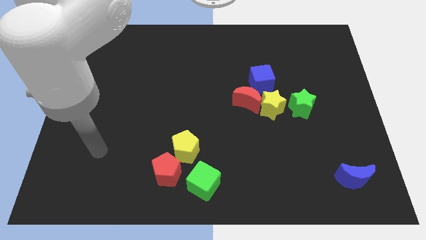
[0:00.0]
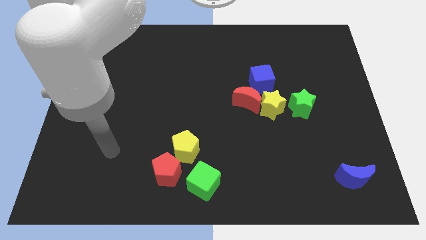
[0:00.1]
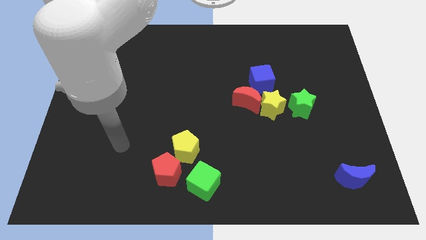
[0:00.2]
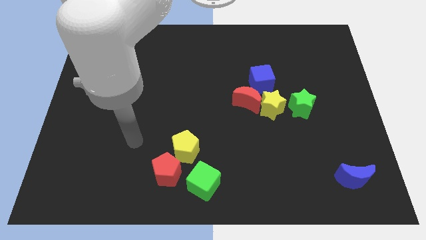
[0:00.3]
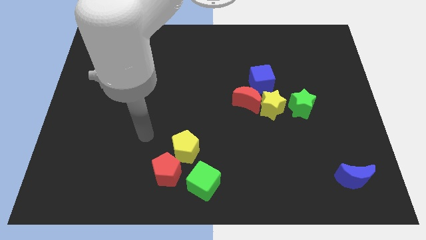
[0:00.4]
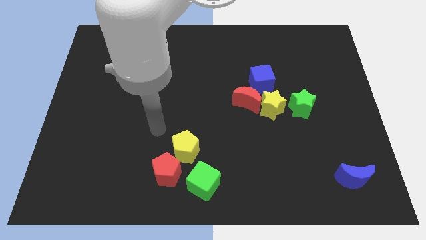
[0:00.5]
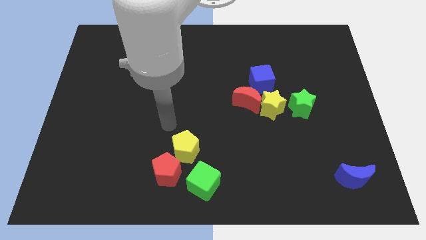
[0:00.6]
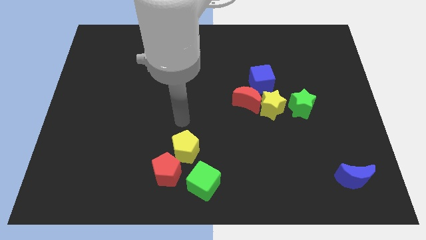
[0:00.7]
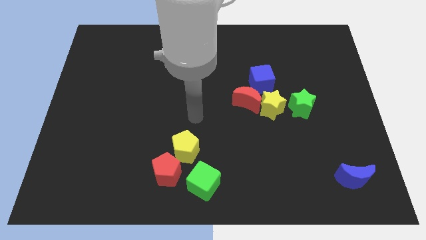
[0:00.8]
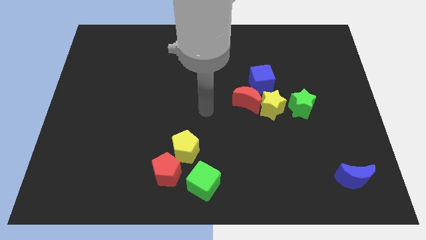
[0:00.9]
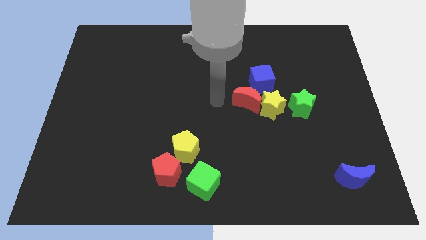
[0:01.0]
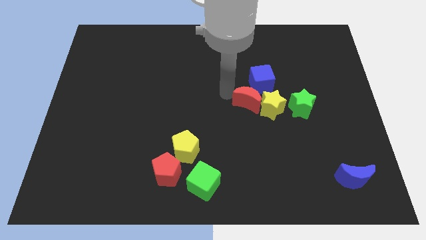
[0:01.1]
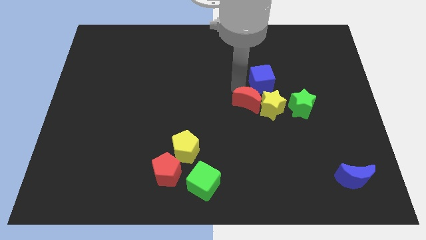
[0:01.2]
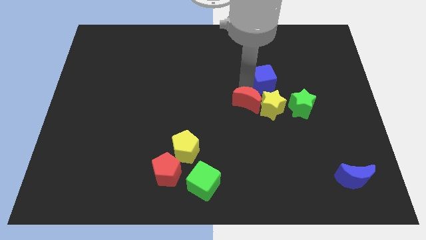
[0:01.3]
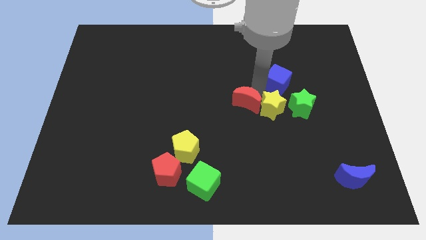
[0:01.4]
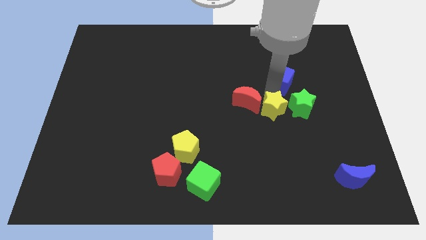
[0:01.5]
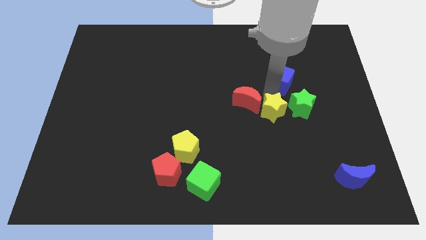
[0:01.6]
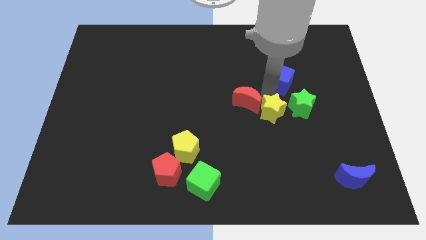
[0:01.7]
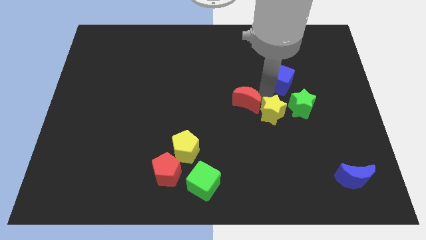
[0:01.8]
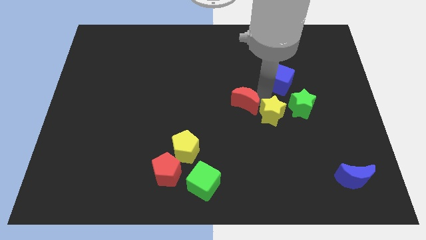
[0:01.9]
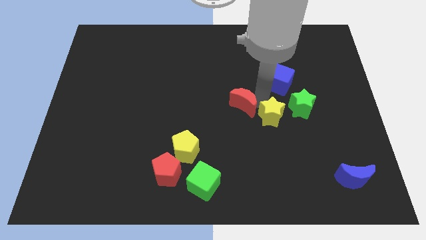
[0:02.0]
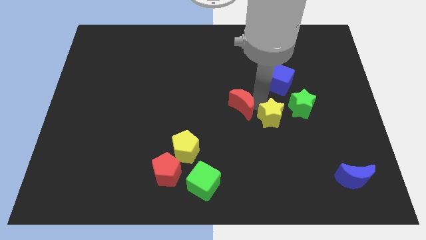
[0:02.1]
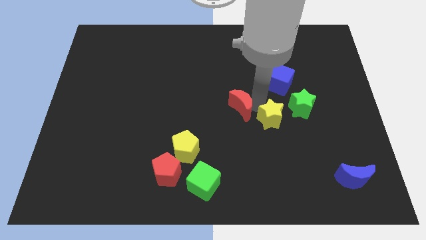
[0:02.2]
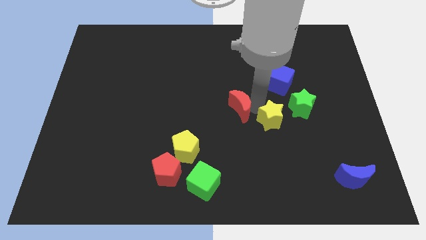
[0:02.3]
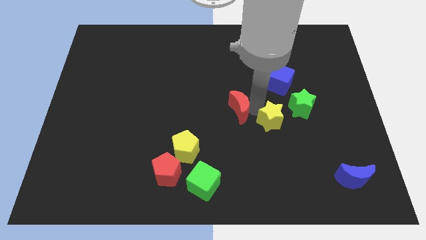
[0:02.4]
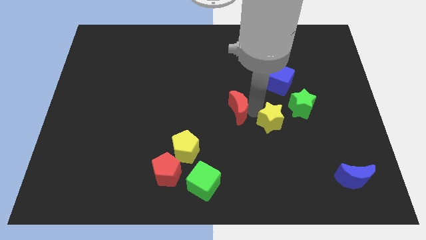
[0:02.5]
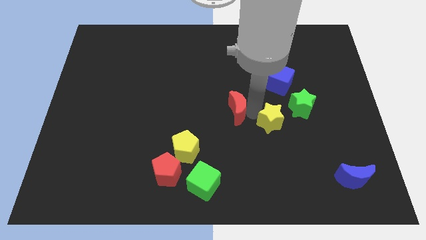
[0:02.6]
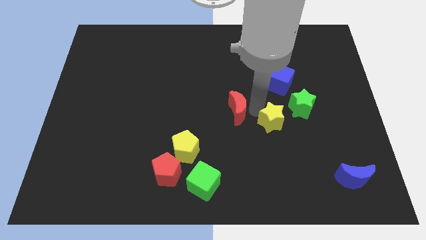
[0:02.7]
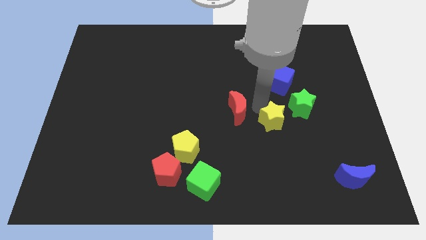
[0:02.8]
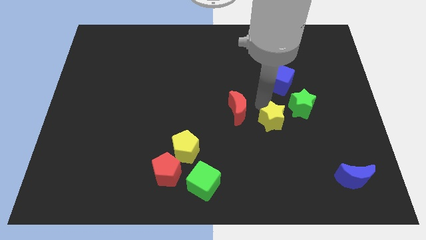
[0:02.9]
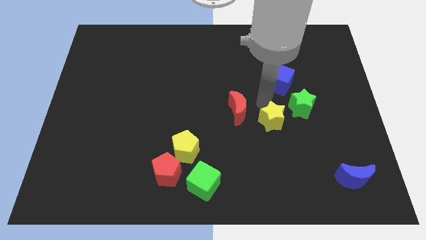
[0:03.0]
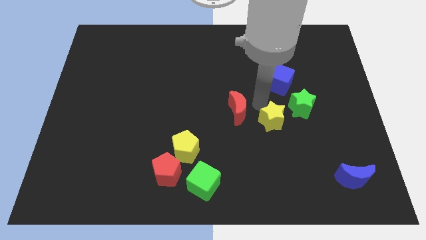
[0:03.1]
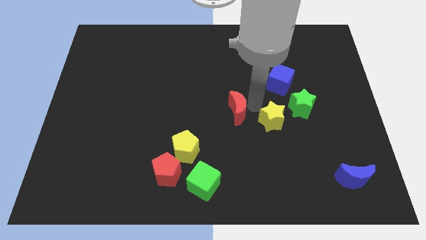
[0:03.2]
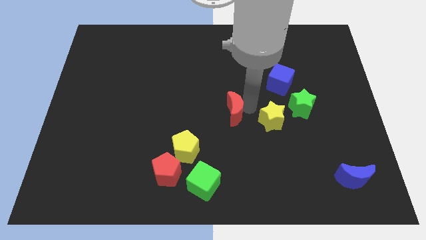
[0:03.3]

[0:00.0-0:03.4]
pull the red moon apart from the yellow star and blue cube

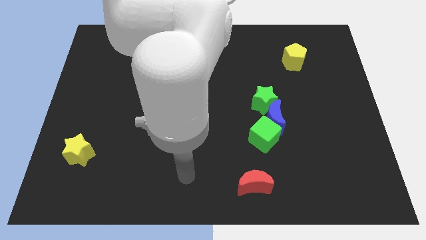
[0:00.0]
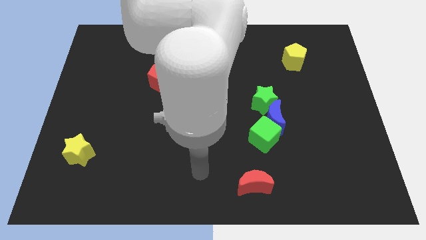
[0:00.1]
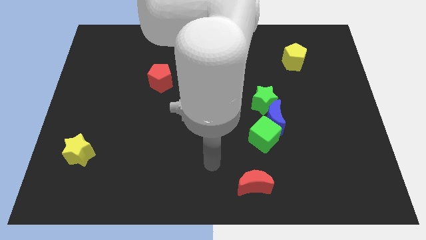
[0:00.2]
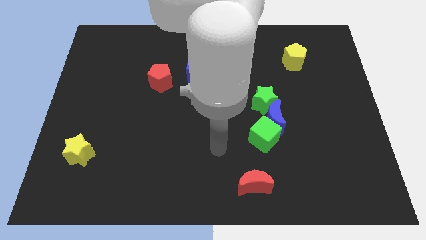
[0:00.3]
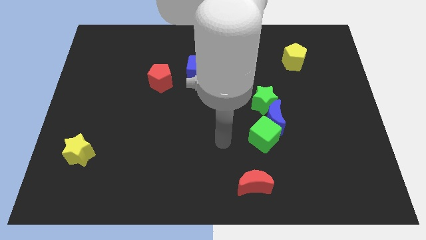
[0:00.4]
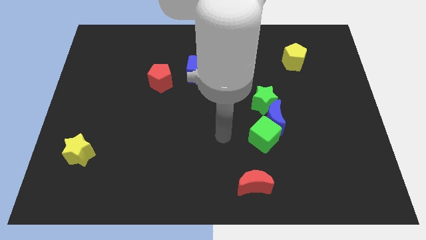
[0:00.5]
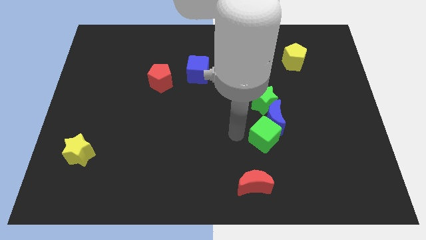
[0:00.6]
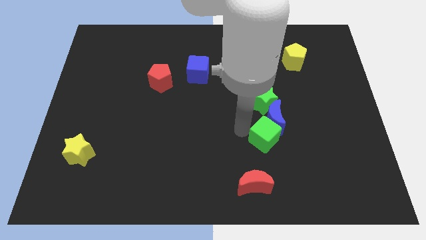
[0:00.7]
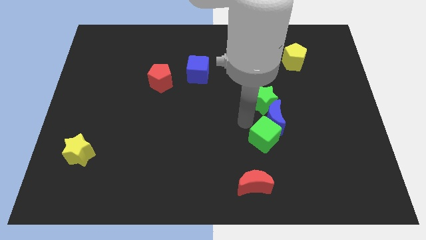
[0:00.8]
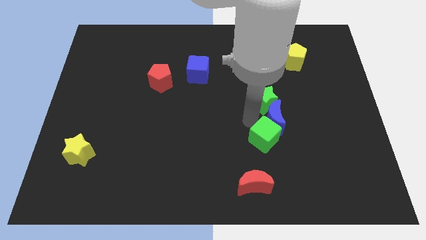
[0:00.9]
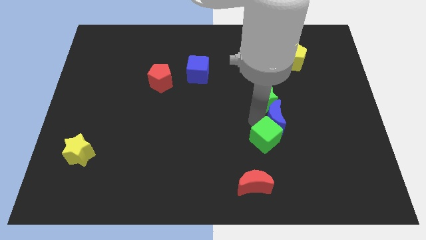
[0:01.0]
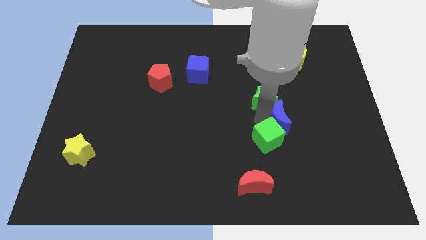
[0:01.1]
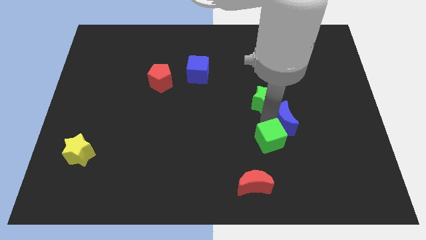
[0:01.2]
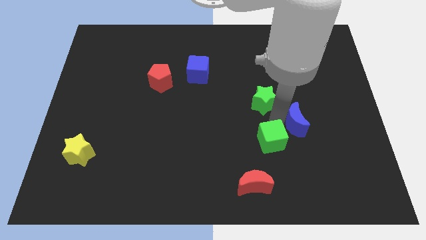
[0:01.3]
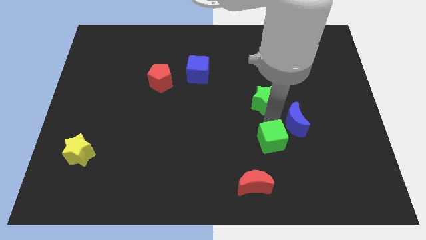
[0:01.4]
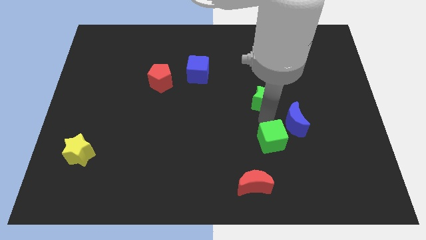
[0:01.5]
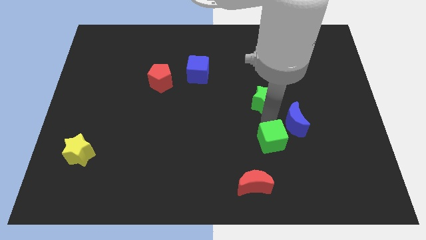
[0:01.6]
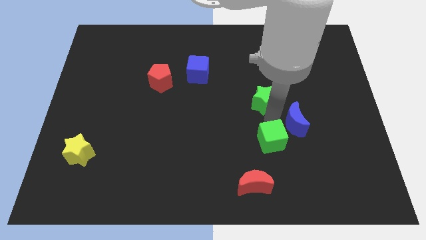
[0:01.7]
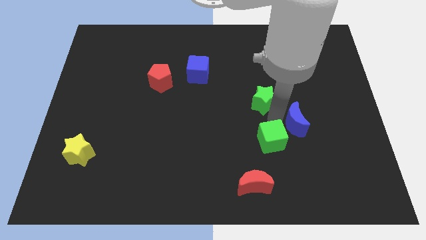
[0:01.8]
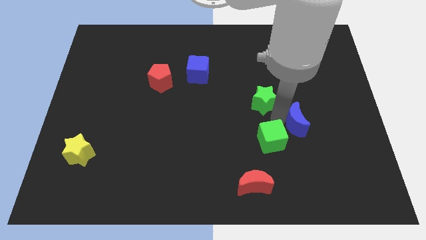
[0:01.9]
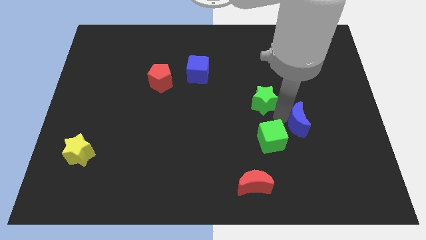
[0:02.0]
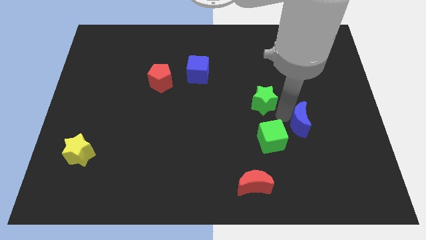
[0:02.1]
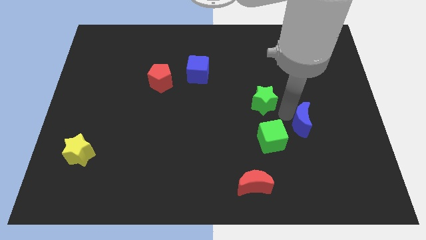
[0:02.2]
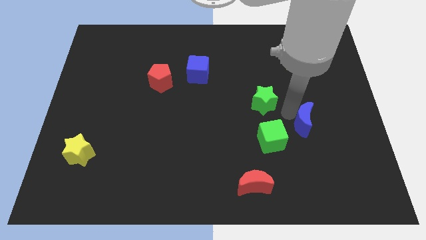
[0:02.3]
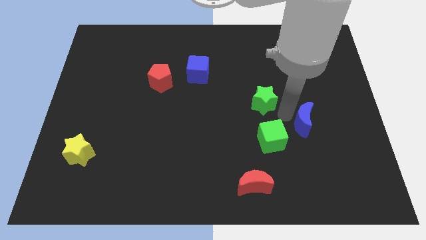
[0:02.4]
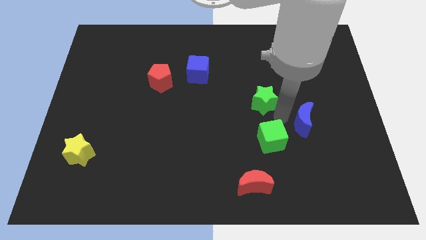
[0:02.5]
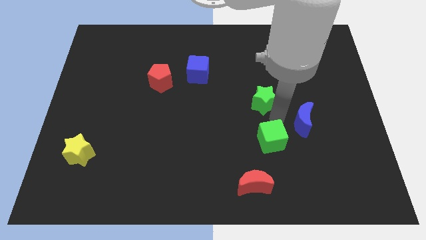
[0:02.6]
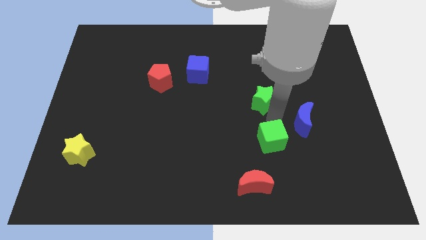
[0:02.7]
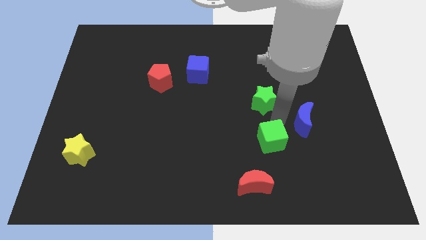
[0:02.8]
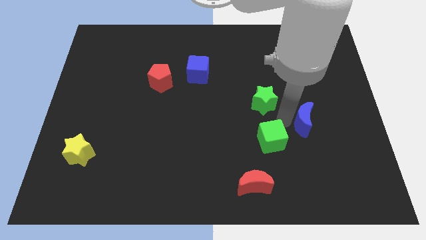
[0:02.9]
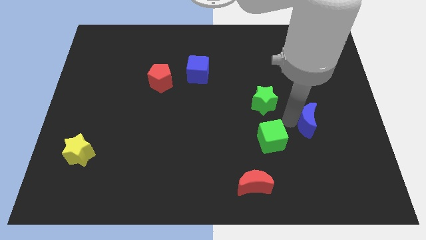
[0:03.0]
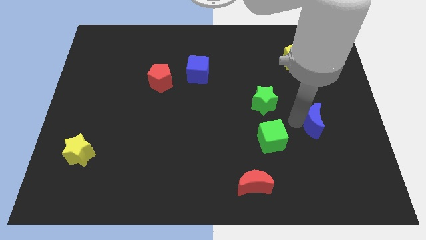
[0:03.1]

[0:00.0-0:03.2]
move the blue moon away from the green cube and green star

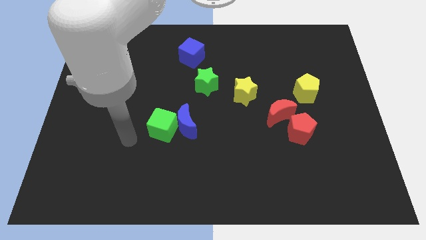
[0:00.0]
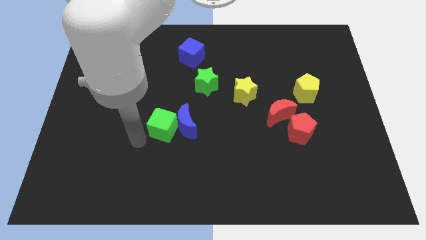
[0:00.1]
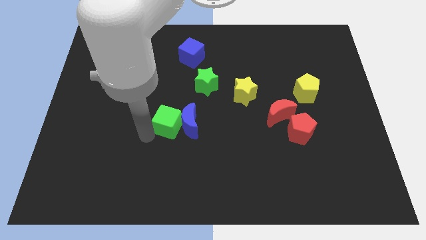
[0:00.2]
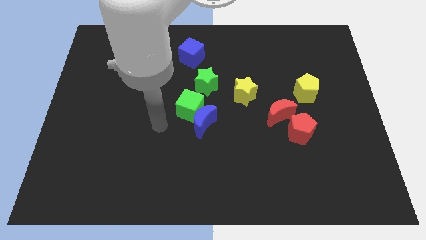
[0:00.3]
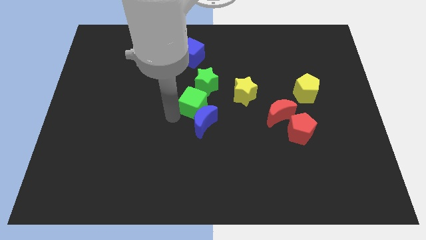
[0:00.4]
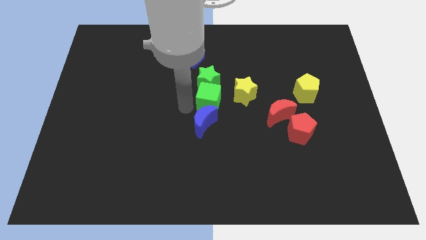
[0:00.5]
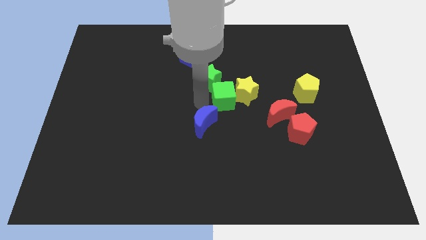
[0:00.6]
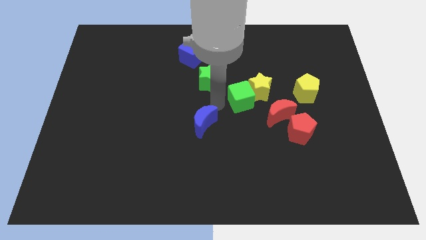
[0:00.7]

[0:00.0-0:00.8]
move the blue moon away from the green cube

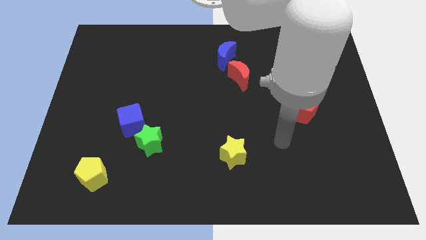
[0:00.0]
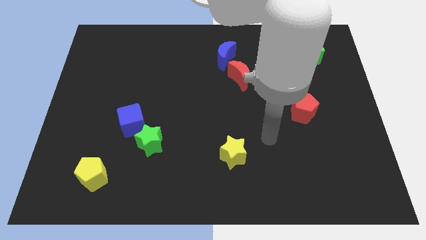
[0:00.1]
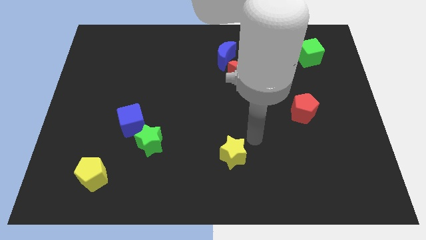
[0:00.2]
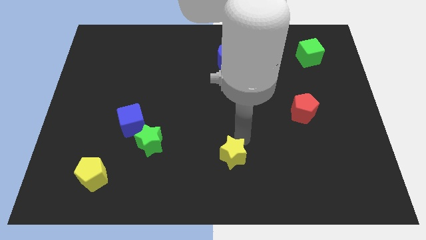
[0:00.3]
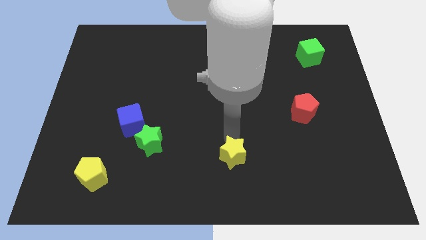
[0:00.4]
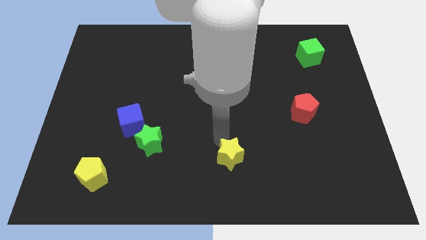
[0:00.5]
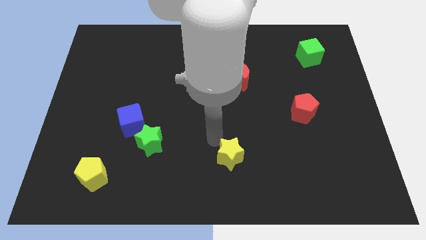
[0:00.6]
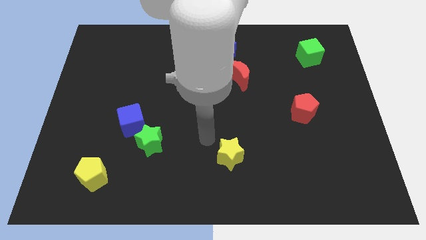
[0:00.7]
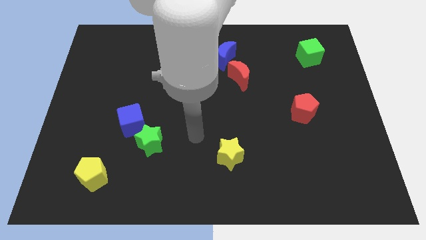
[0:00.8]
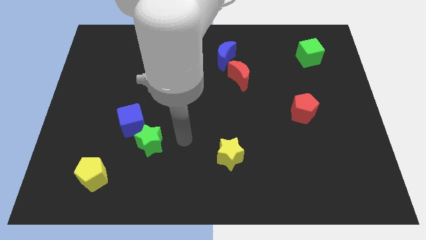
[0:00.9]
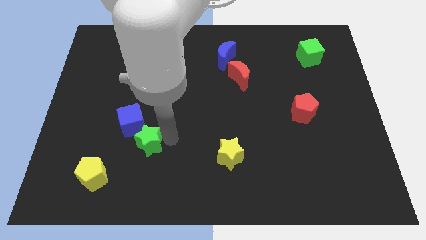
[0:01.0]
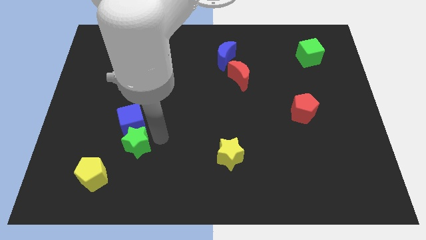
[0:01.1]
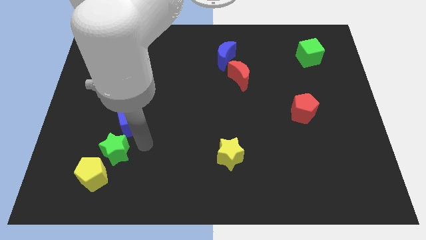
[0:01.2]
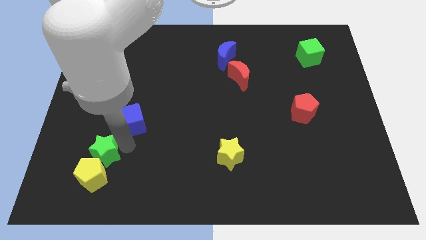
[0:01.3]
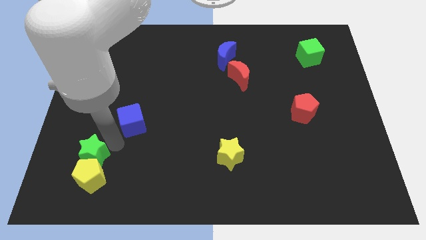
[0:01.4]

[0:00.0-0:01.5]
separate the blue cube from the green star

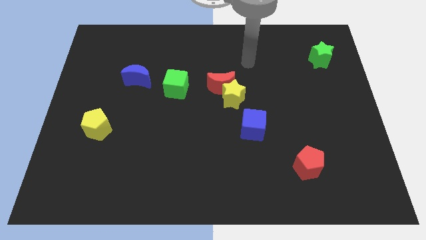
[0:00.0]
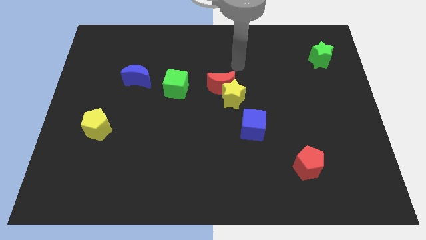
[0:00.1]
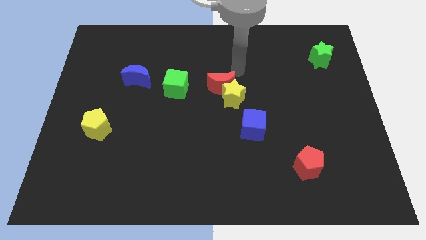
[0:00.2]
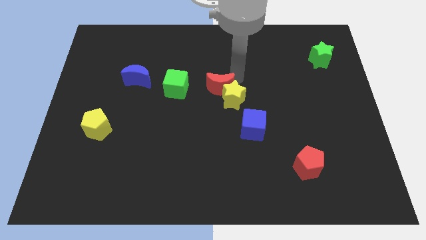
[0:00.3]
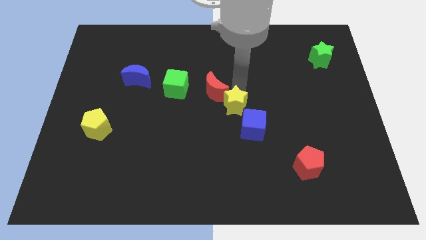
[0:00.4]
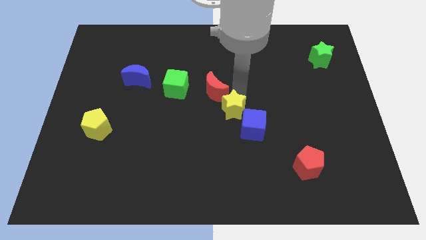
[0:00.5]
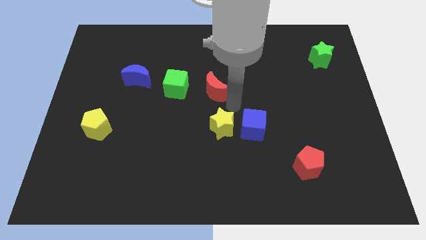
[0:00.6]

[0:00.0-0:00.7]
pull the red moon apart from the yellow star
